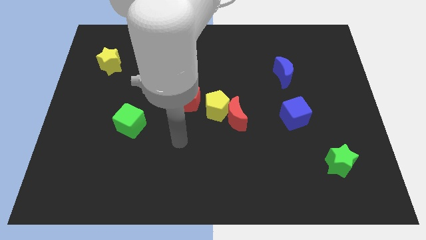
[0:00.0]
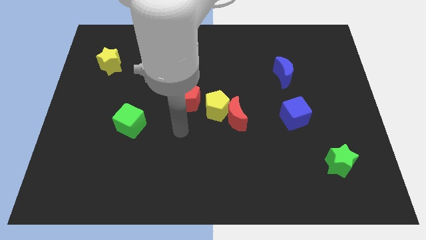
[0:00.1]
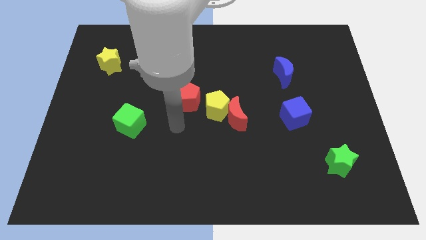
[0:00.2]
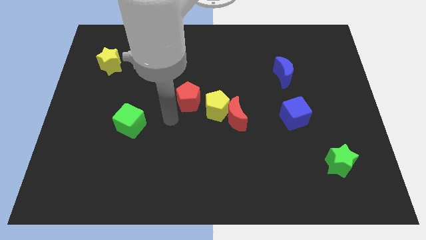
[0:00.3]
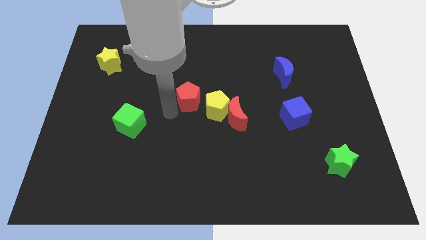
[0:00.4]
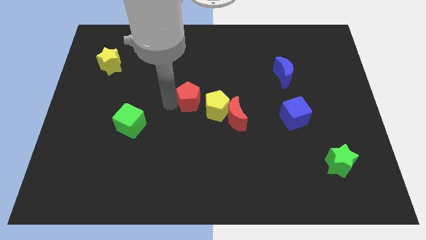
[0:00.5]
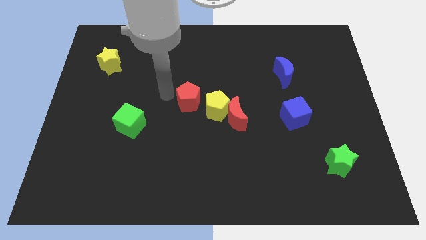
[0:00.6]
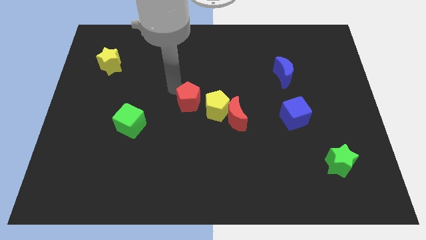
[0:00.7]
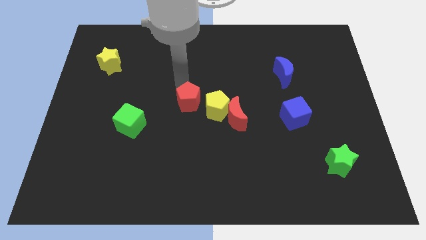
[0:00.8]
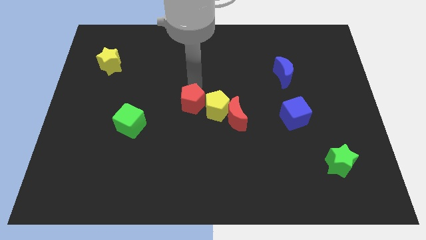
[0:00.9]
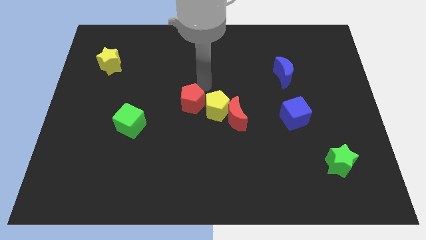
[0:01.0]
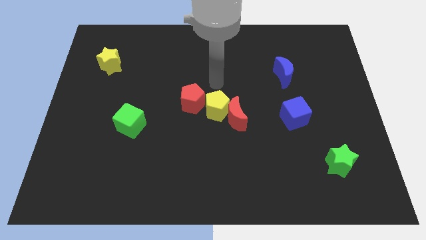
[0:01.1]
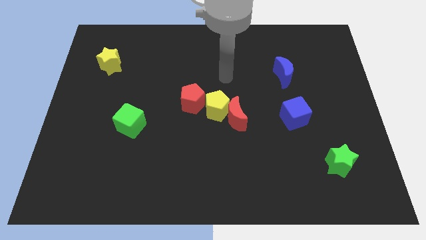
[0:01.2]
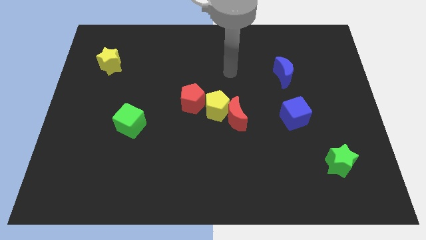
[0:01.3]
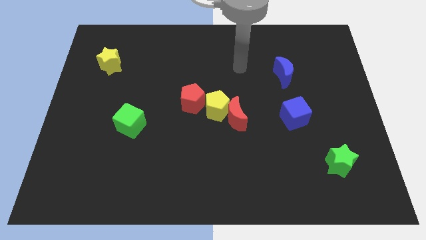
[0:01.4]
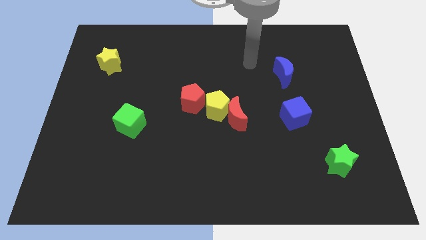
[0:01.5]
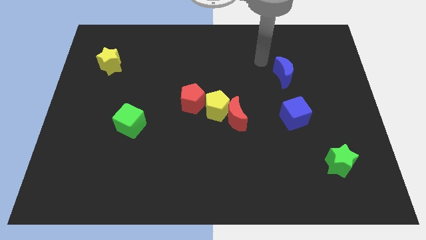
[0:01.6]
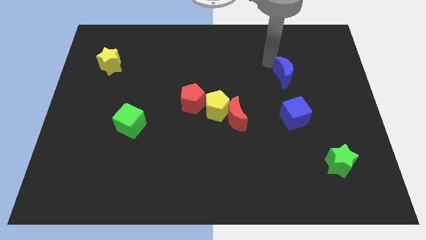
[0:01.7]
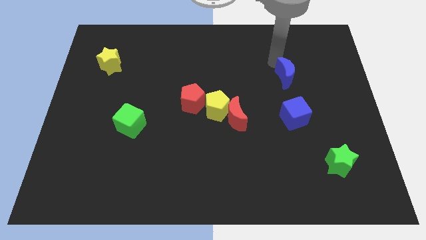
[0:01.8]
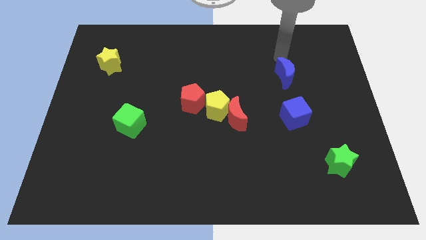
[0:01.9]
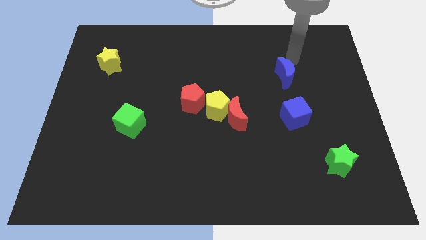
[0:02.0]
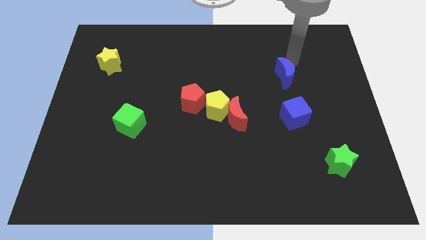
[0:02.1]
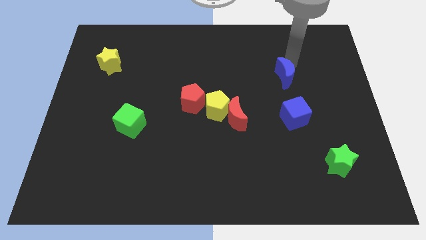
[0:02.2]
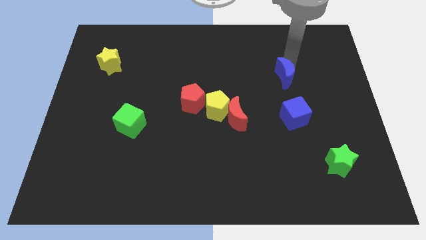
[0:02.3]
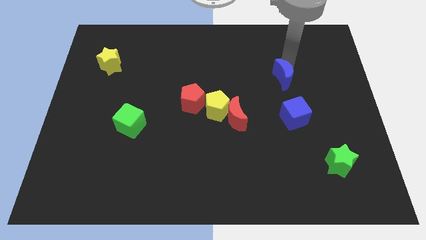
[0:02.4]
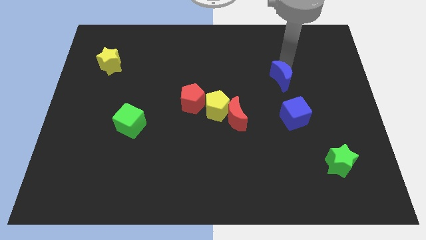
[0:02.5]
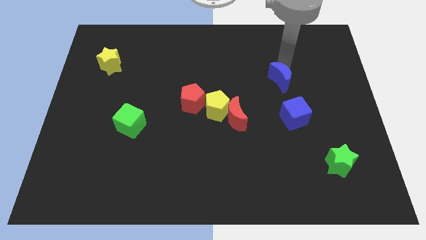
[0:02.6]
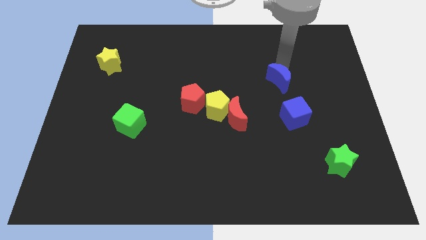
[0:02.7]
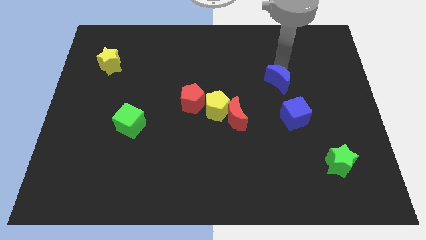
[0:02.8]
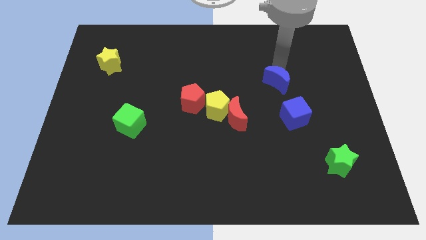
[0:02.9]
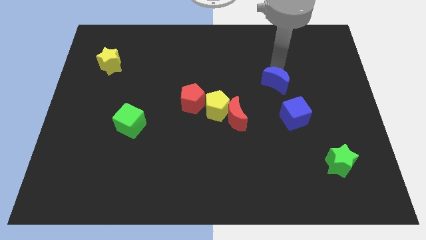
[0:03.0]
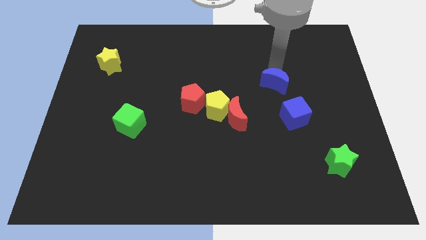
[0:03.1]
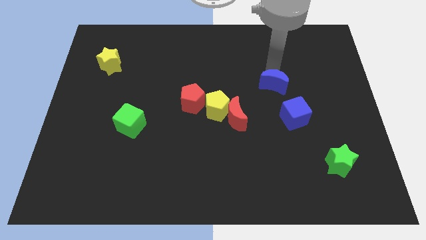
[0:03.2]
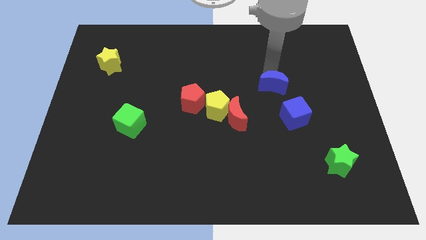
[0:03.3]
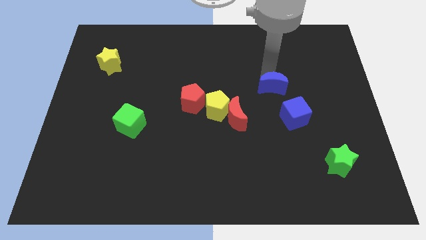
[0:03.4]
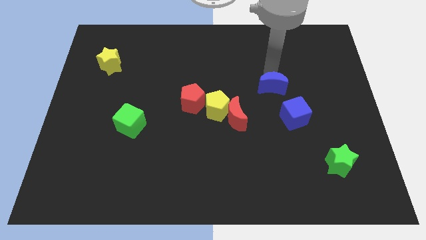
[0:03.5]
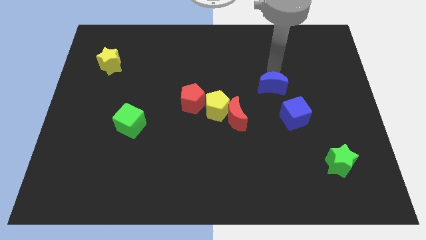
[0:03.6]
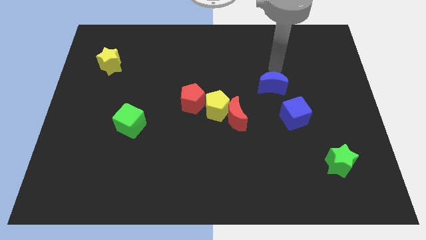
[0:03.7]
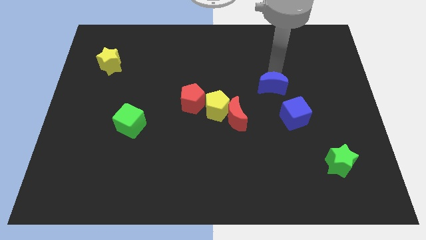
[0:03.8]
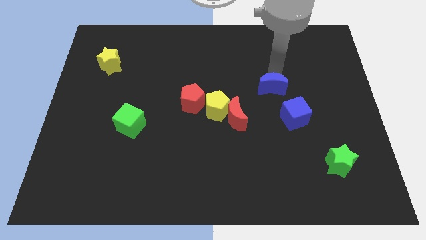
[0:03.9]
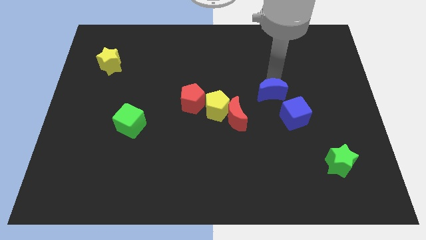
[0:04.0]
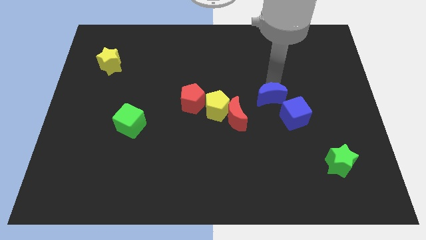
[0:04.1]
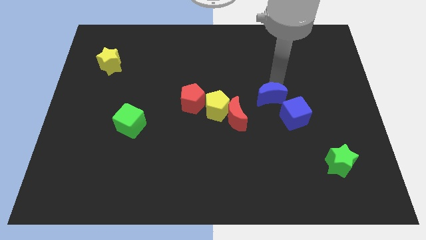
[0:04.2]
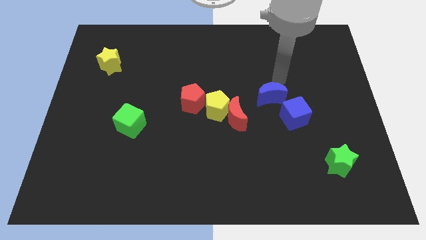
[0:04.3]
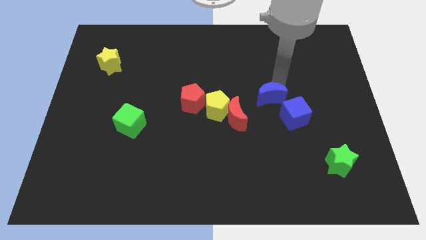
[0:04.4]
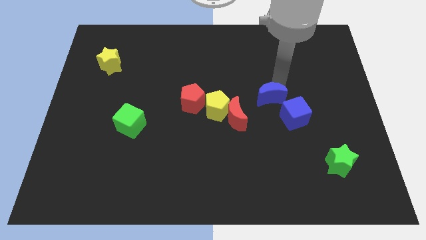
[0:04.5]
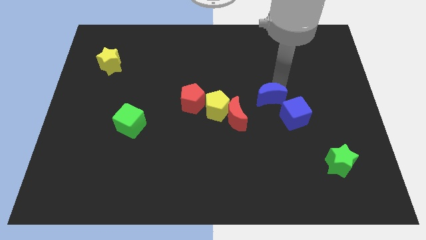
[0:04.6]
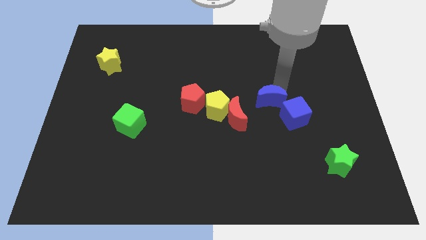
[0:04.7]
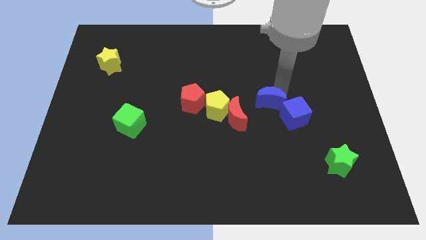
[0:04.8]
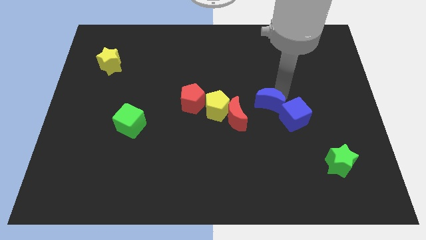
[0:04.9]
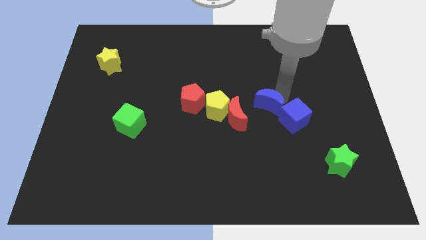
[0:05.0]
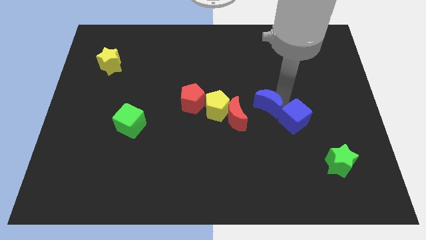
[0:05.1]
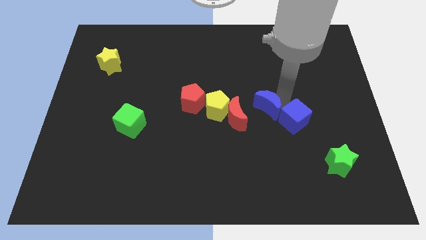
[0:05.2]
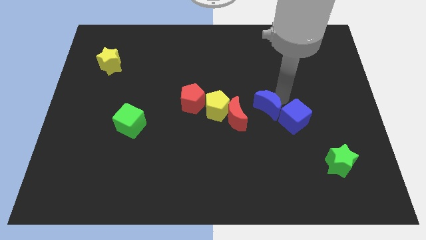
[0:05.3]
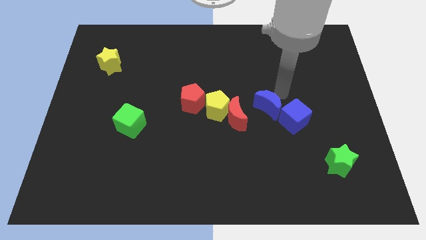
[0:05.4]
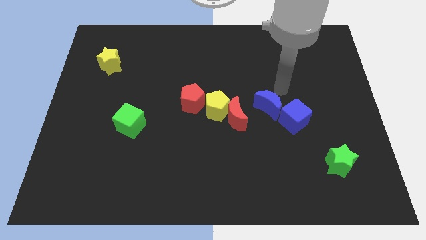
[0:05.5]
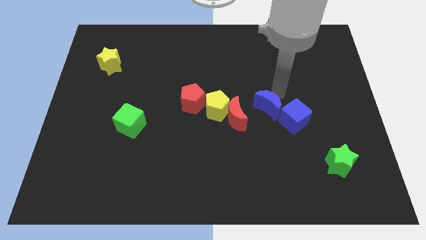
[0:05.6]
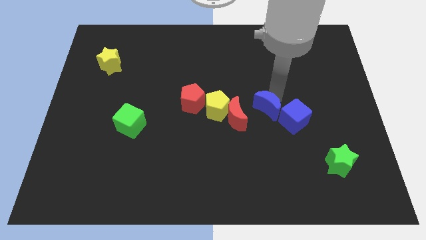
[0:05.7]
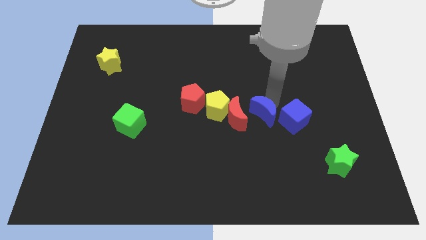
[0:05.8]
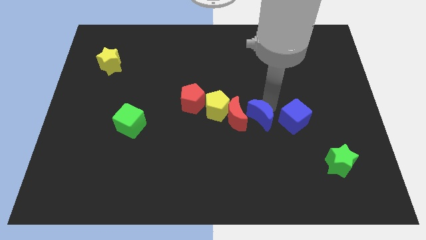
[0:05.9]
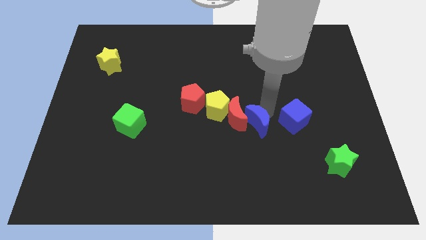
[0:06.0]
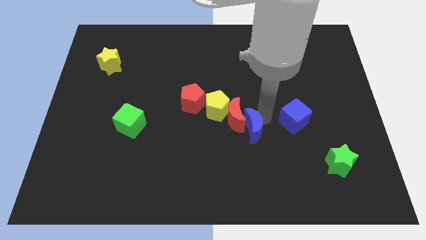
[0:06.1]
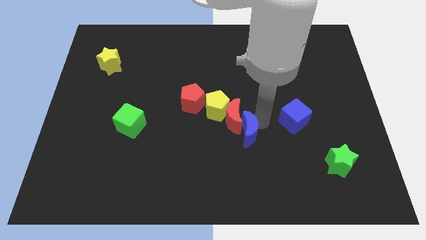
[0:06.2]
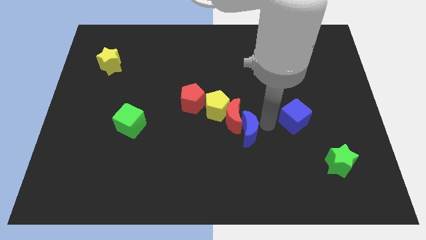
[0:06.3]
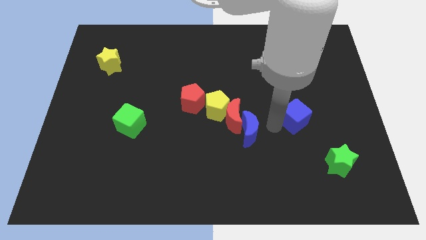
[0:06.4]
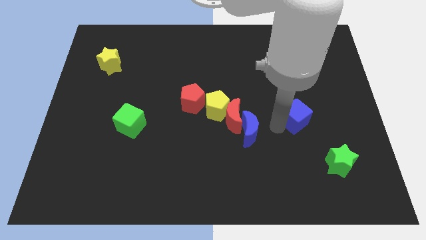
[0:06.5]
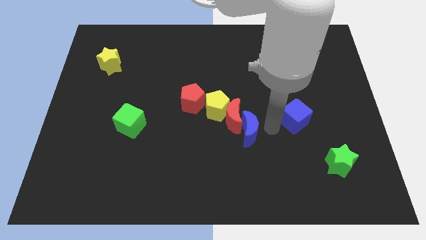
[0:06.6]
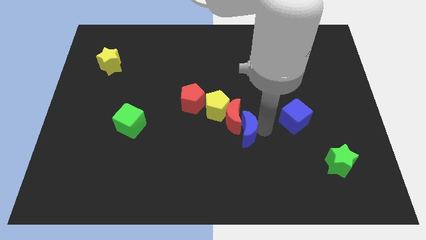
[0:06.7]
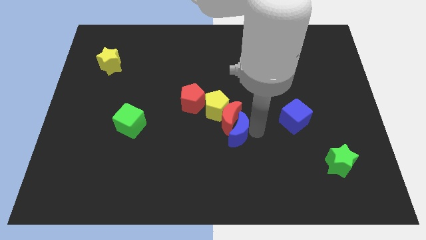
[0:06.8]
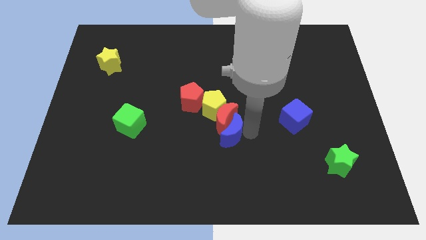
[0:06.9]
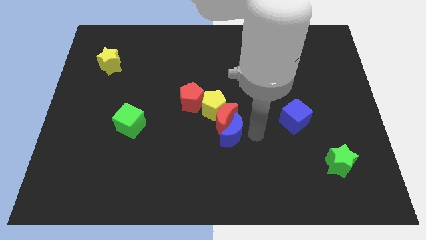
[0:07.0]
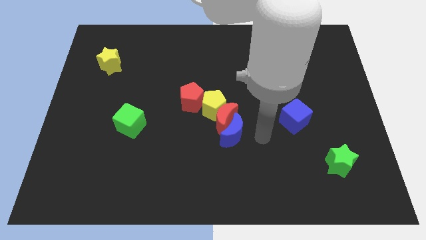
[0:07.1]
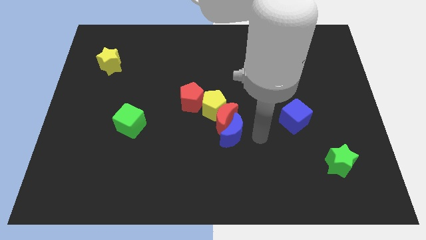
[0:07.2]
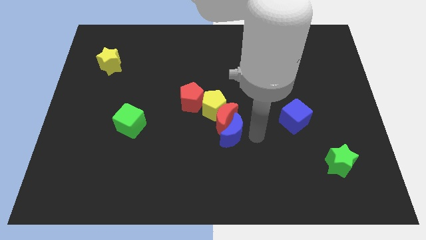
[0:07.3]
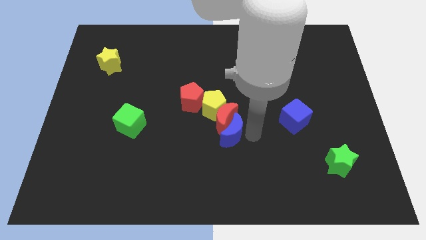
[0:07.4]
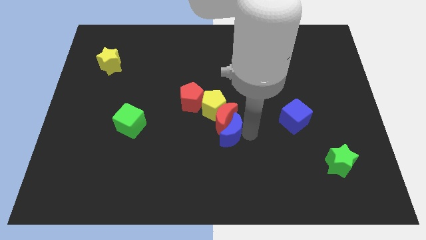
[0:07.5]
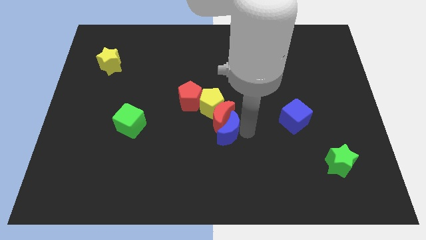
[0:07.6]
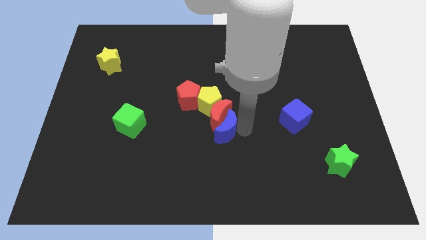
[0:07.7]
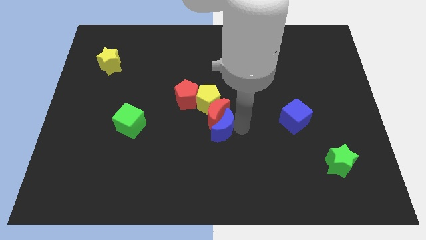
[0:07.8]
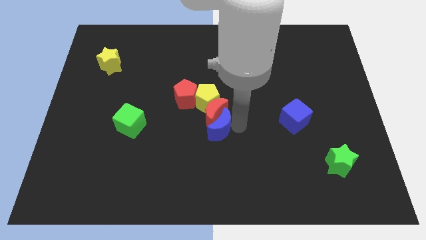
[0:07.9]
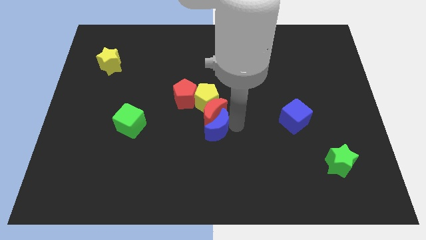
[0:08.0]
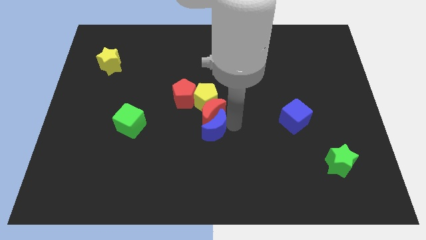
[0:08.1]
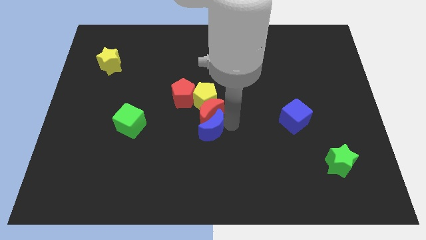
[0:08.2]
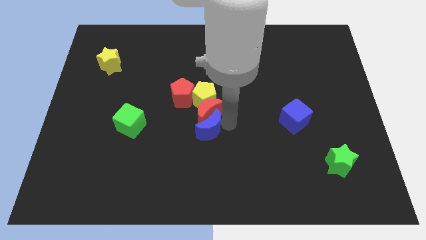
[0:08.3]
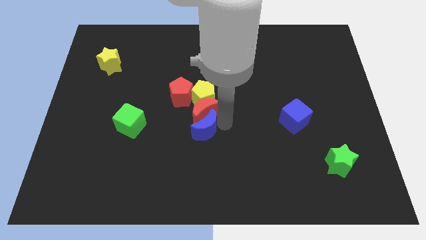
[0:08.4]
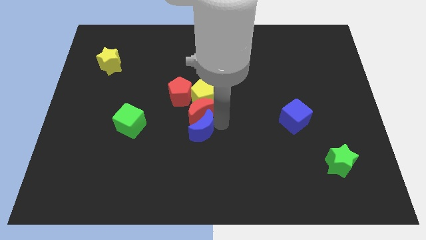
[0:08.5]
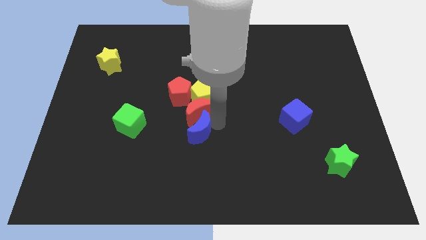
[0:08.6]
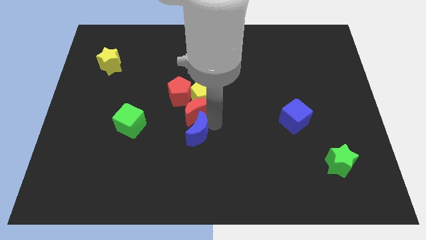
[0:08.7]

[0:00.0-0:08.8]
put the blue moon just right of the green cube
